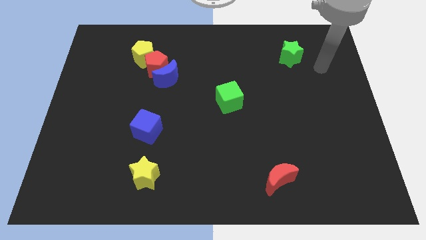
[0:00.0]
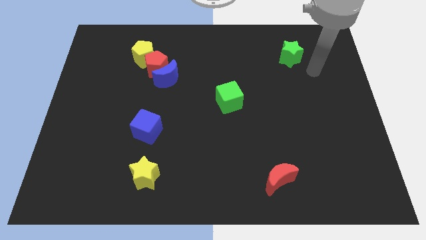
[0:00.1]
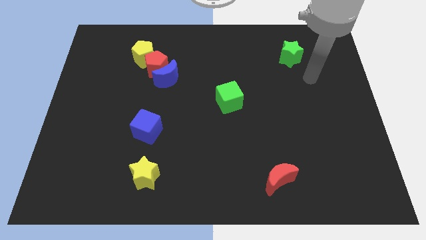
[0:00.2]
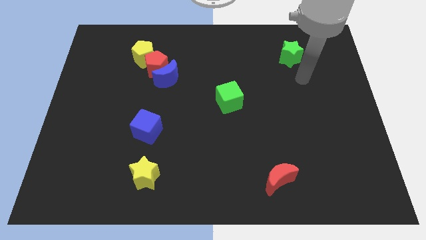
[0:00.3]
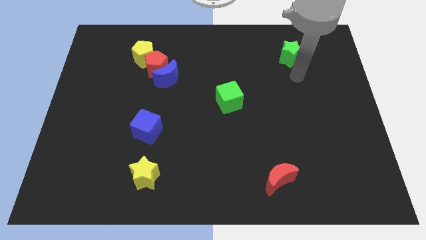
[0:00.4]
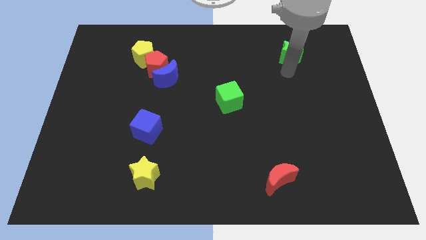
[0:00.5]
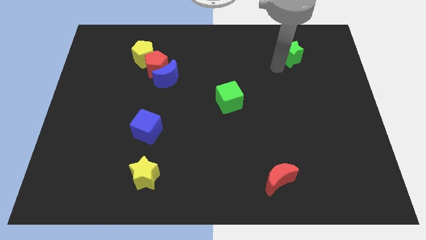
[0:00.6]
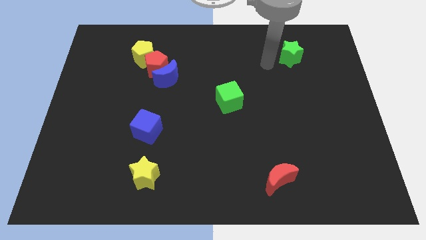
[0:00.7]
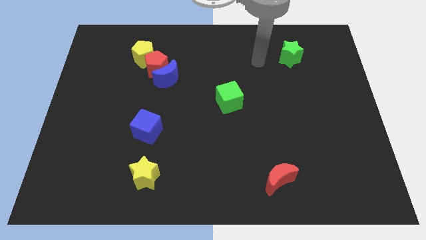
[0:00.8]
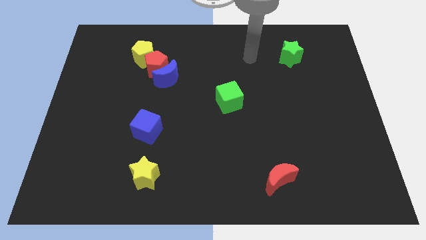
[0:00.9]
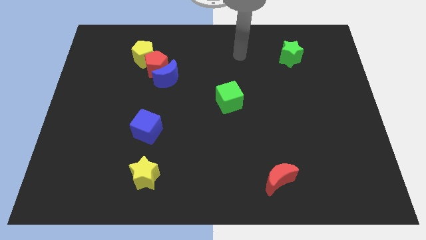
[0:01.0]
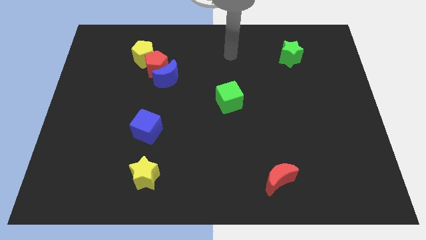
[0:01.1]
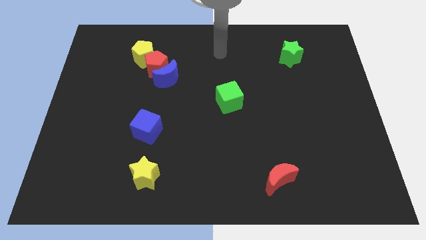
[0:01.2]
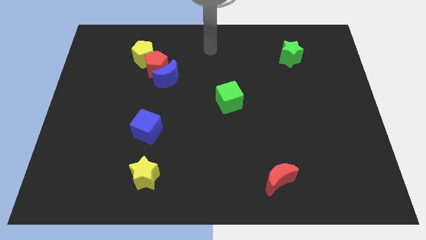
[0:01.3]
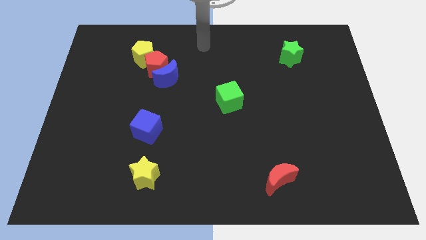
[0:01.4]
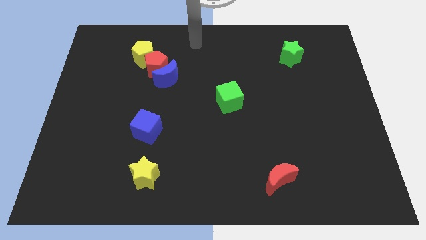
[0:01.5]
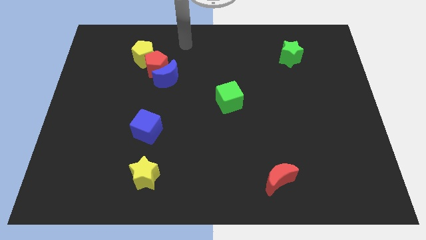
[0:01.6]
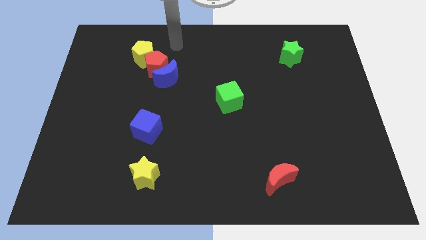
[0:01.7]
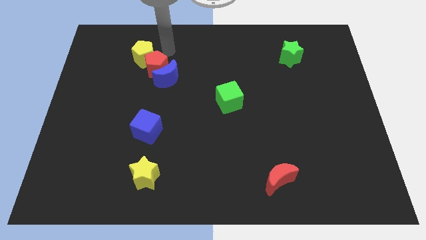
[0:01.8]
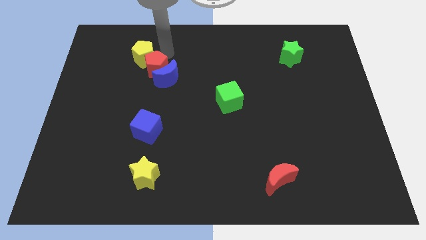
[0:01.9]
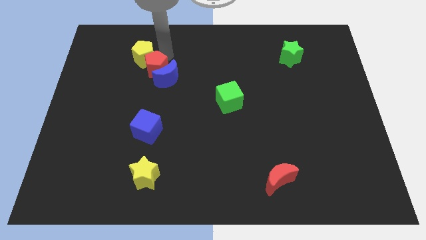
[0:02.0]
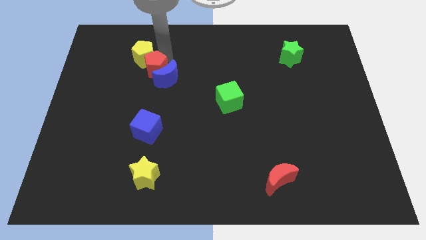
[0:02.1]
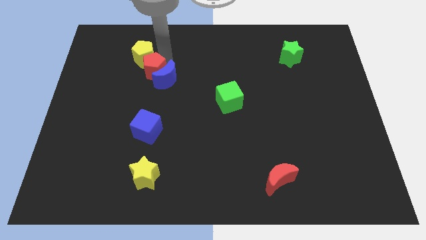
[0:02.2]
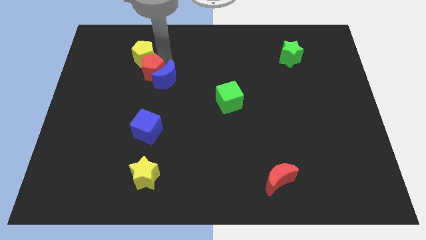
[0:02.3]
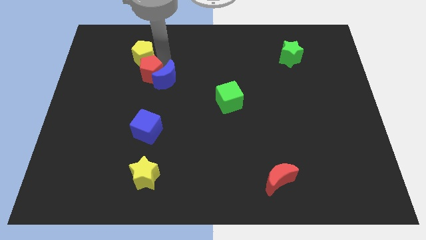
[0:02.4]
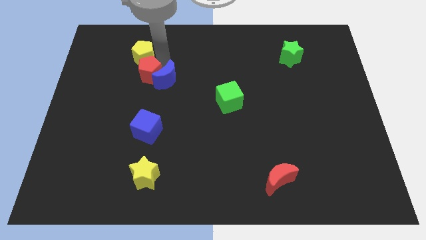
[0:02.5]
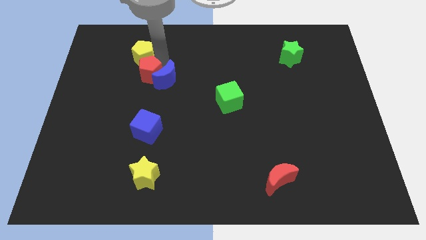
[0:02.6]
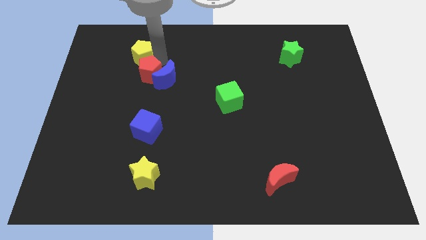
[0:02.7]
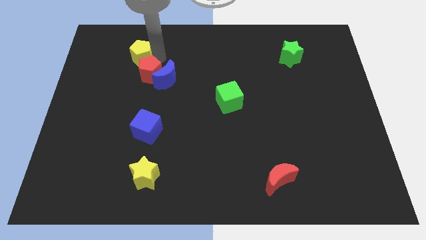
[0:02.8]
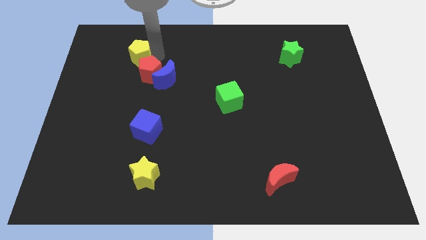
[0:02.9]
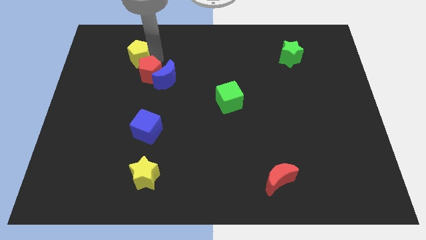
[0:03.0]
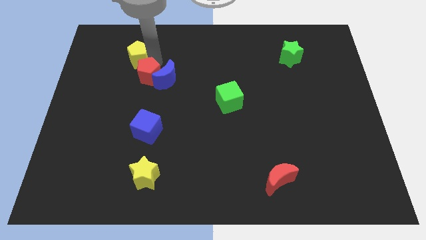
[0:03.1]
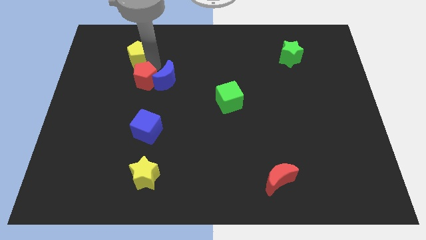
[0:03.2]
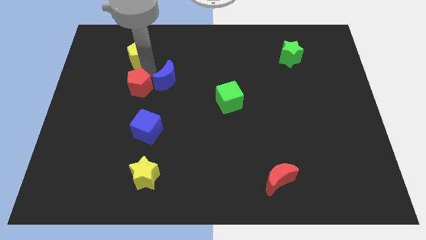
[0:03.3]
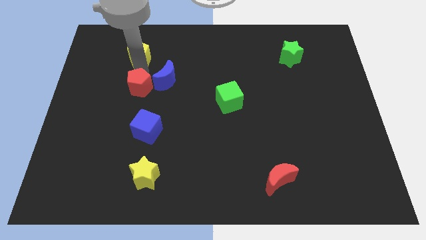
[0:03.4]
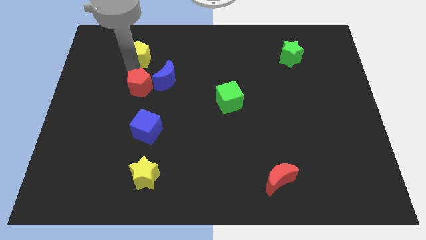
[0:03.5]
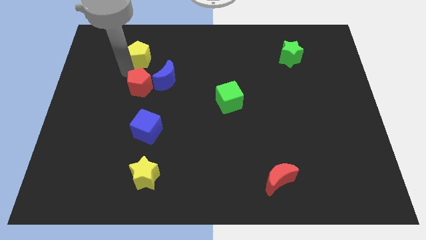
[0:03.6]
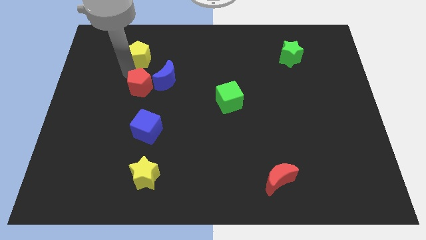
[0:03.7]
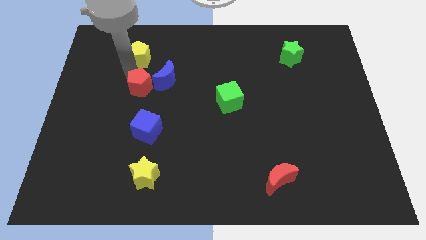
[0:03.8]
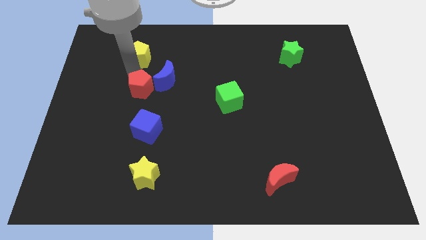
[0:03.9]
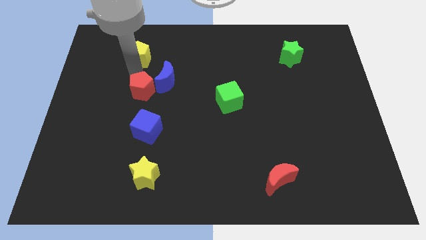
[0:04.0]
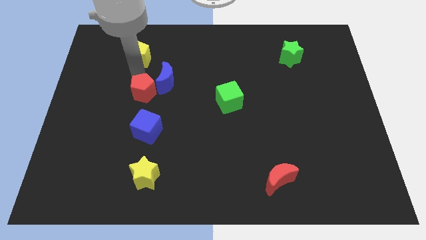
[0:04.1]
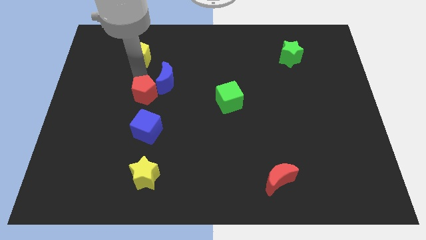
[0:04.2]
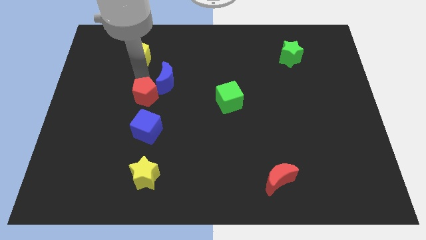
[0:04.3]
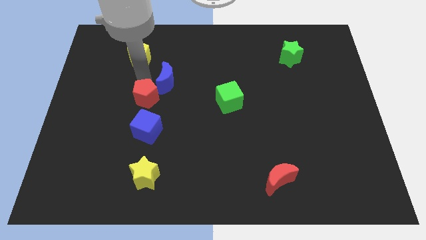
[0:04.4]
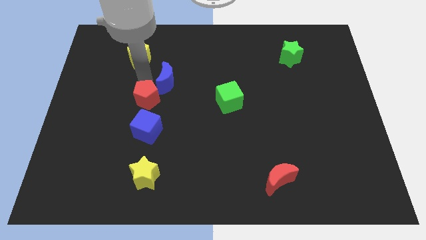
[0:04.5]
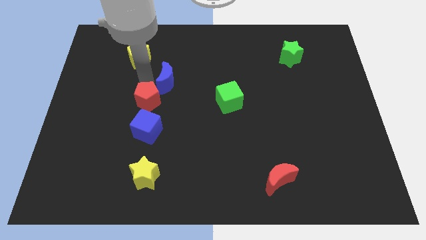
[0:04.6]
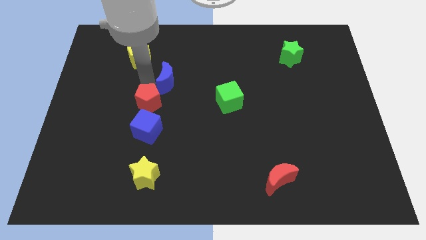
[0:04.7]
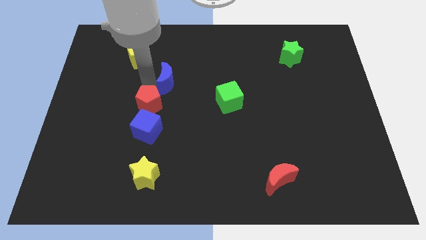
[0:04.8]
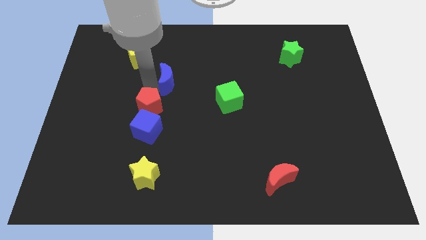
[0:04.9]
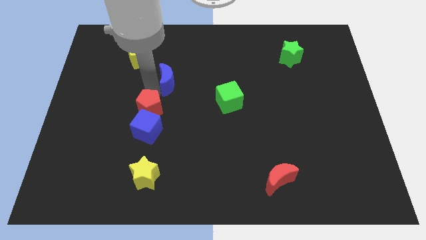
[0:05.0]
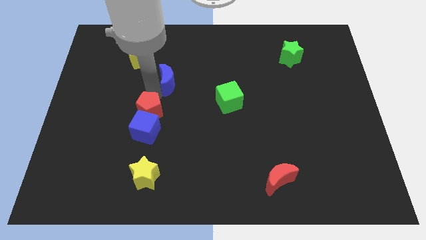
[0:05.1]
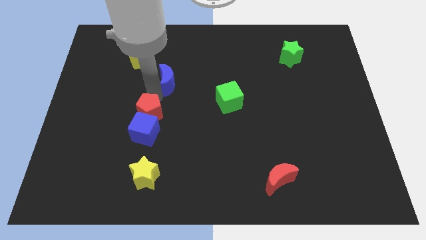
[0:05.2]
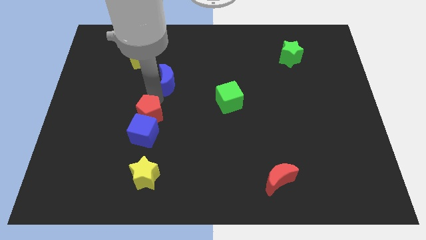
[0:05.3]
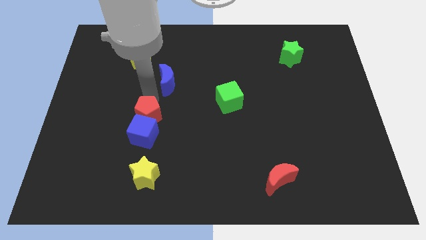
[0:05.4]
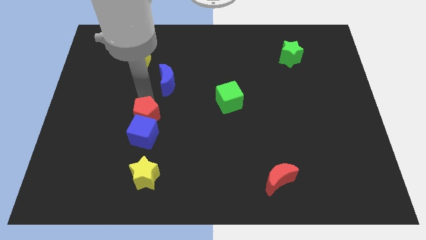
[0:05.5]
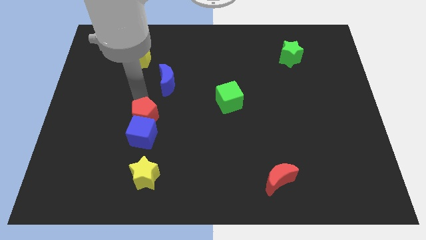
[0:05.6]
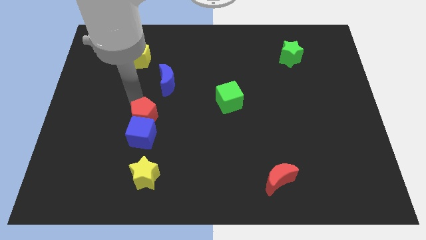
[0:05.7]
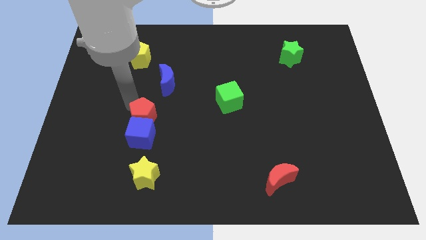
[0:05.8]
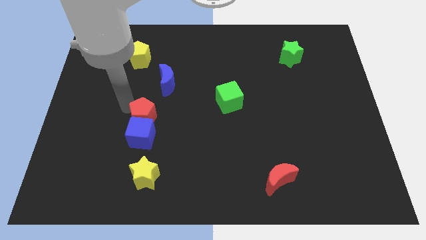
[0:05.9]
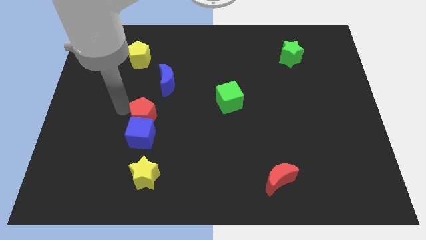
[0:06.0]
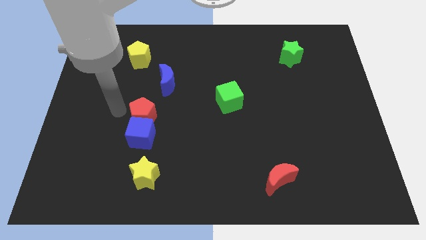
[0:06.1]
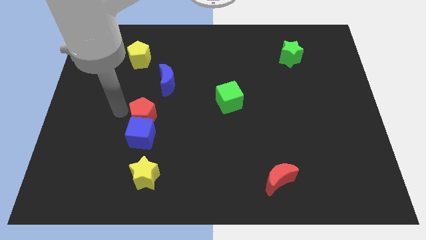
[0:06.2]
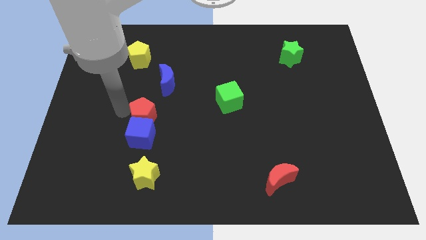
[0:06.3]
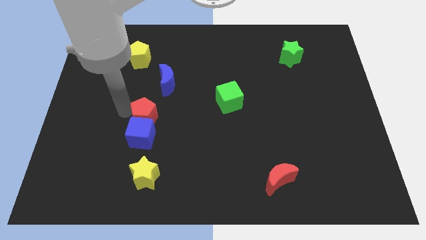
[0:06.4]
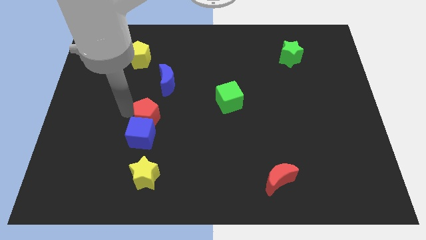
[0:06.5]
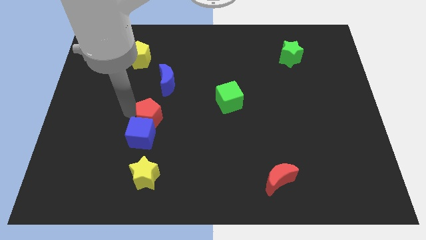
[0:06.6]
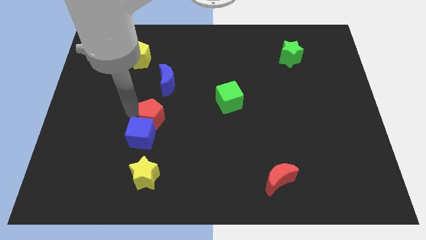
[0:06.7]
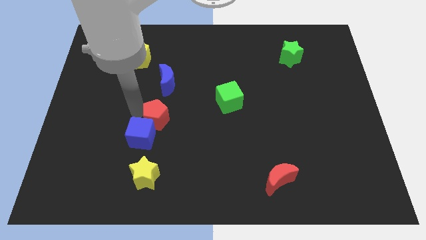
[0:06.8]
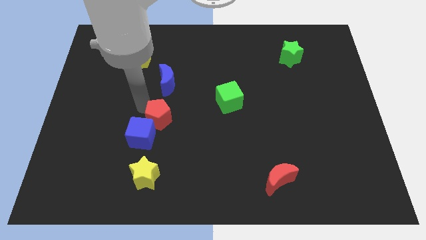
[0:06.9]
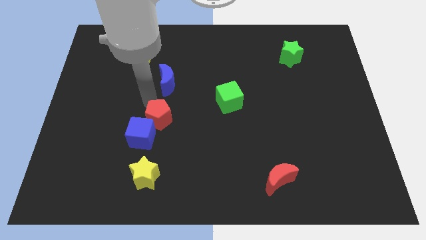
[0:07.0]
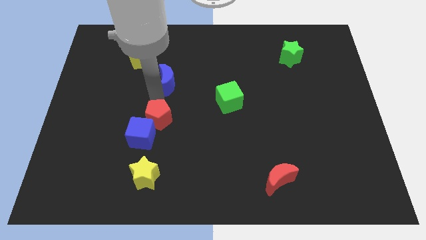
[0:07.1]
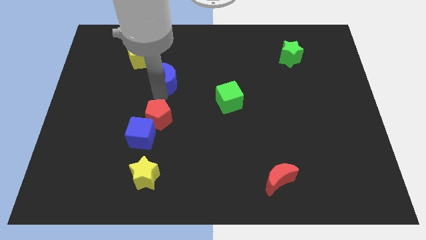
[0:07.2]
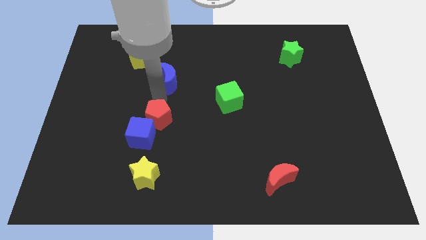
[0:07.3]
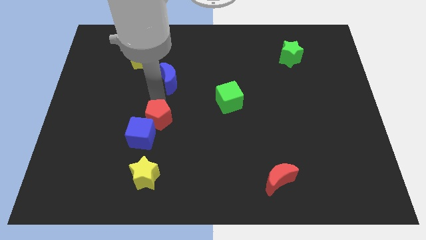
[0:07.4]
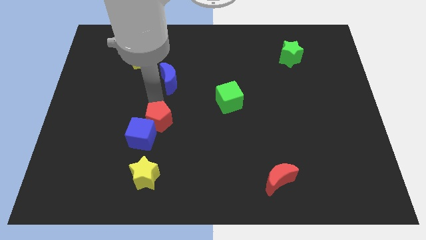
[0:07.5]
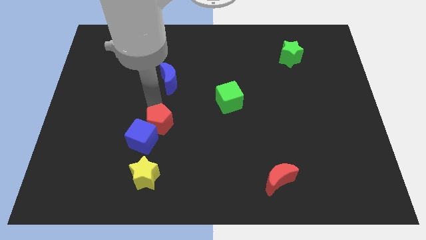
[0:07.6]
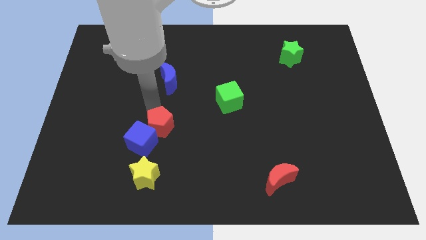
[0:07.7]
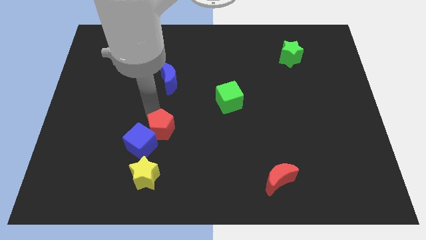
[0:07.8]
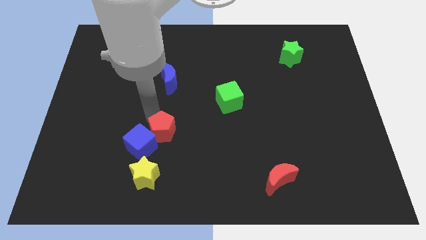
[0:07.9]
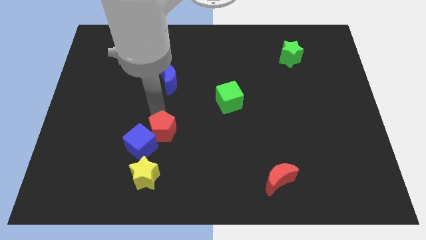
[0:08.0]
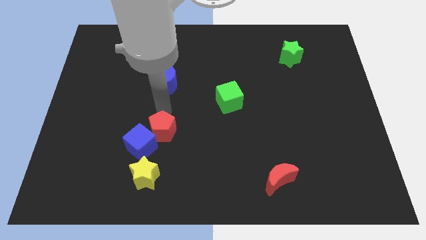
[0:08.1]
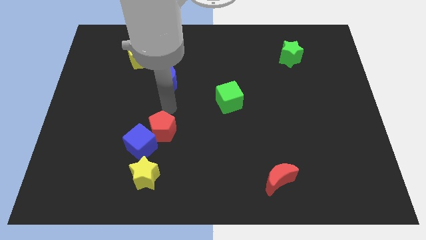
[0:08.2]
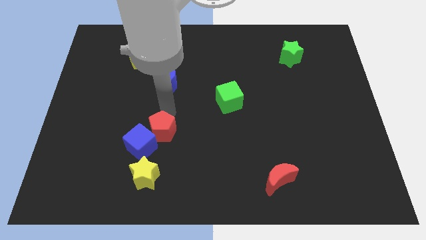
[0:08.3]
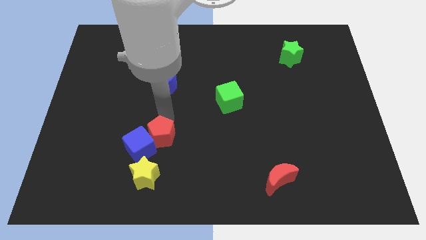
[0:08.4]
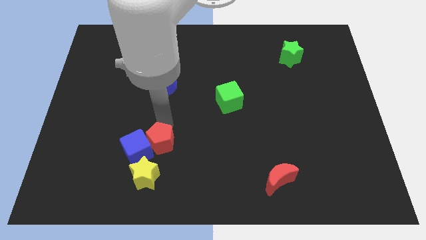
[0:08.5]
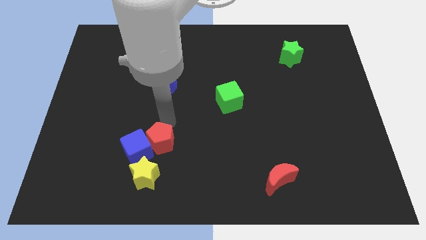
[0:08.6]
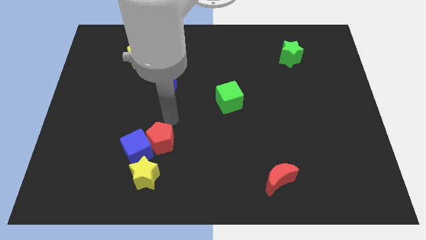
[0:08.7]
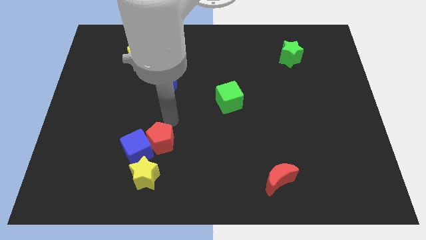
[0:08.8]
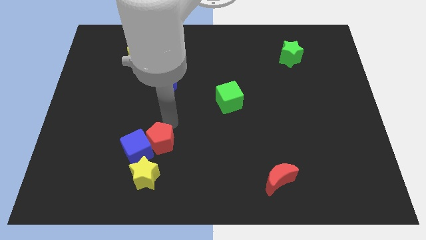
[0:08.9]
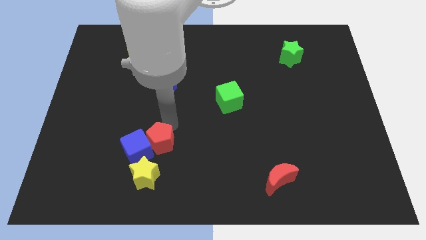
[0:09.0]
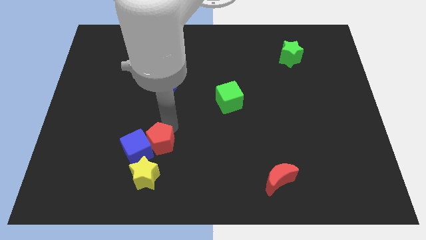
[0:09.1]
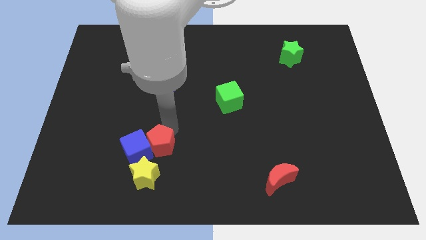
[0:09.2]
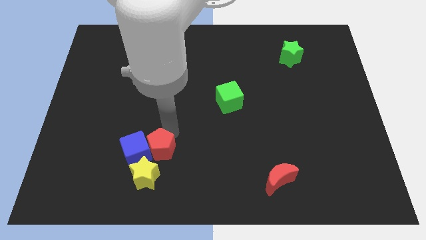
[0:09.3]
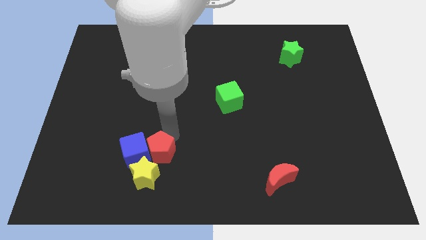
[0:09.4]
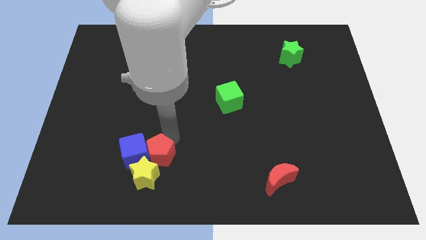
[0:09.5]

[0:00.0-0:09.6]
push the red pentagon towards the yellow star
